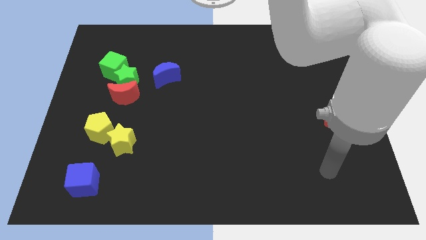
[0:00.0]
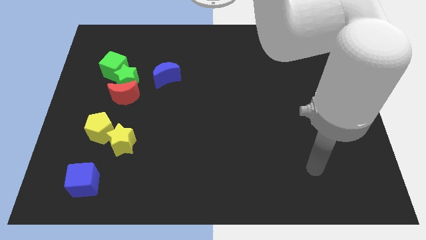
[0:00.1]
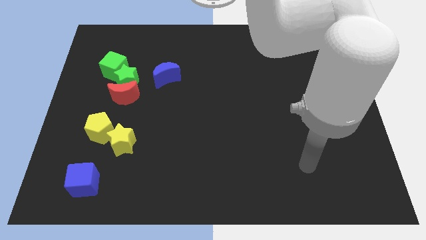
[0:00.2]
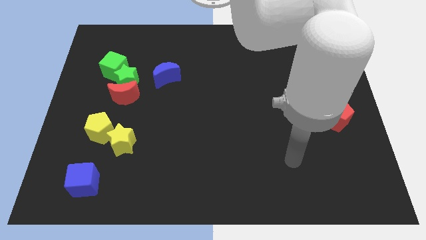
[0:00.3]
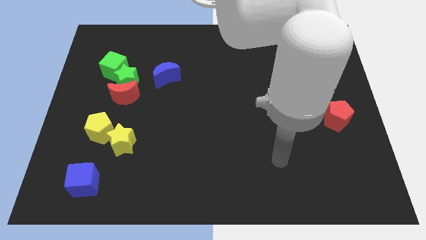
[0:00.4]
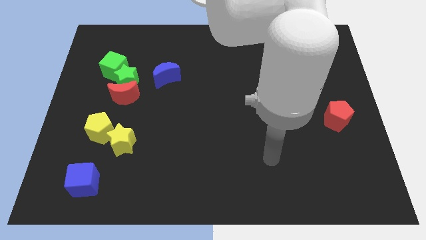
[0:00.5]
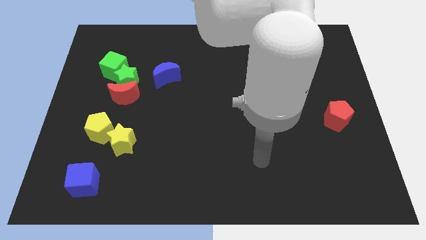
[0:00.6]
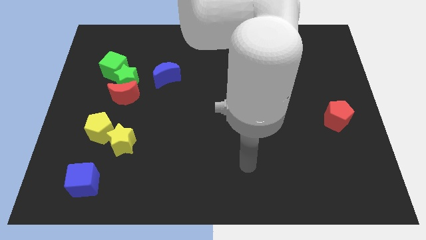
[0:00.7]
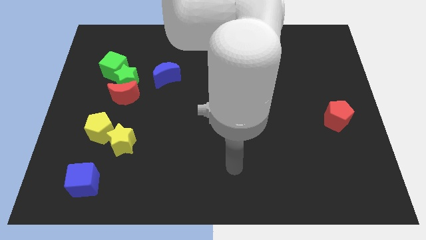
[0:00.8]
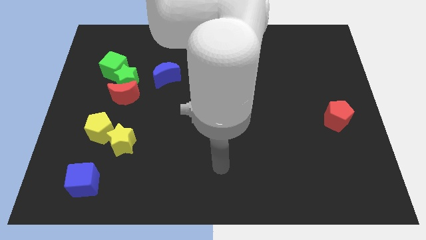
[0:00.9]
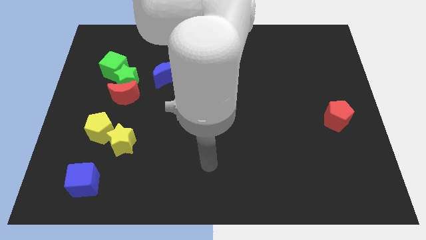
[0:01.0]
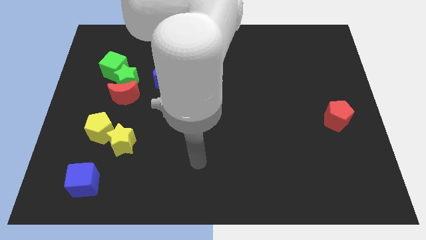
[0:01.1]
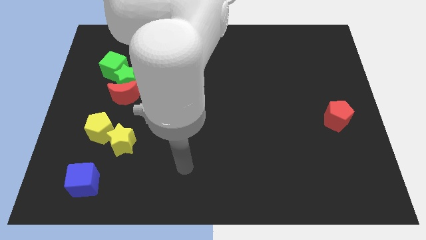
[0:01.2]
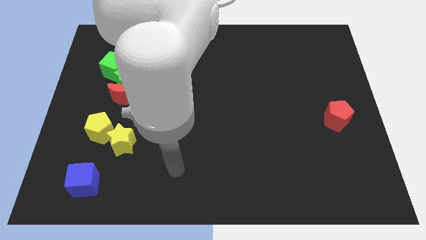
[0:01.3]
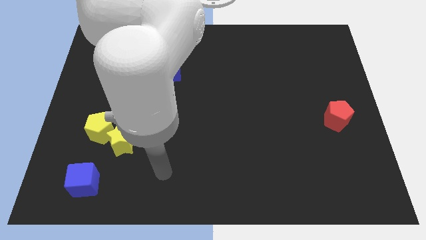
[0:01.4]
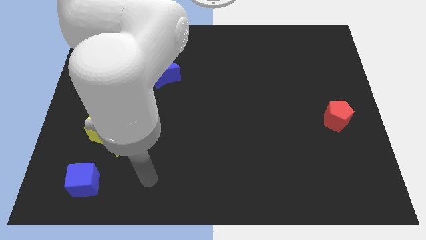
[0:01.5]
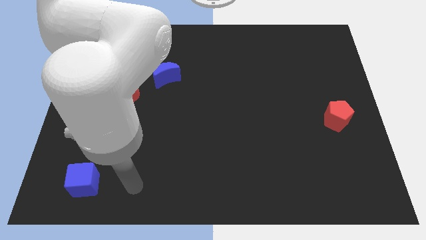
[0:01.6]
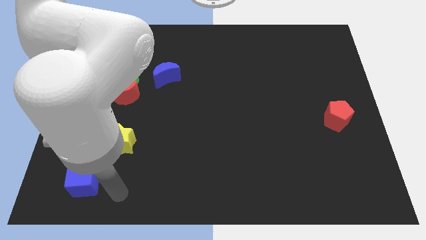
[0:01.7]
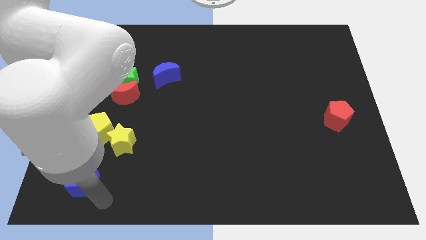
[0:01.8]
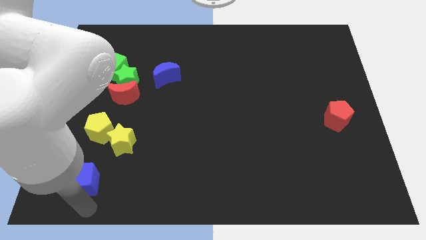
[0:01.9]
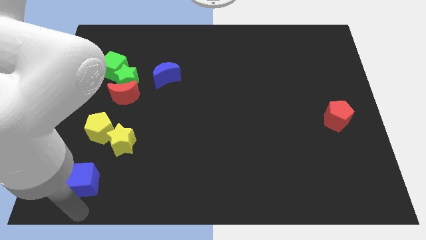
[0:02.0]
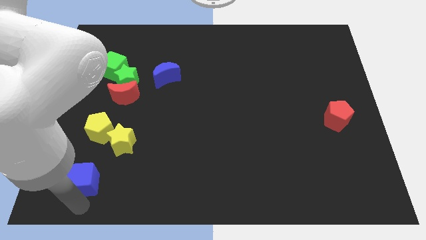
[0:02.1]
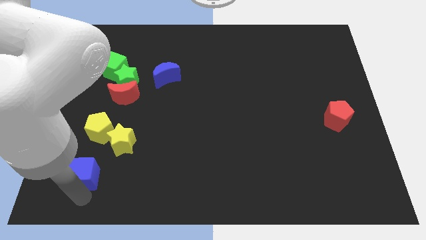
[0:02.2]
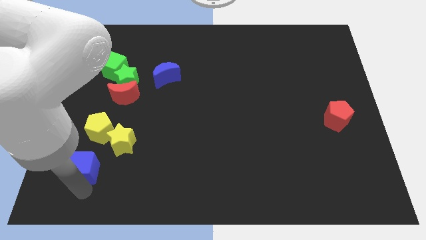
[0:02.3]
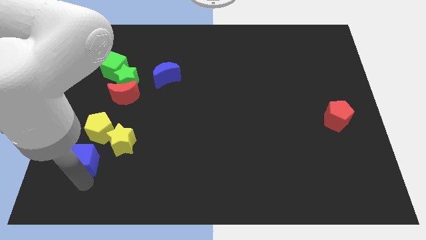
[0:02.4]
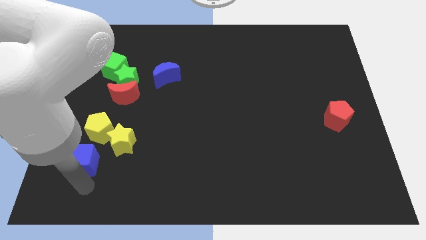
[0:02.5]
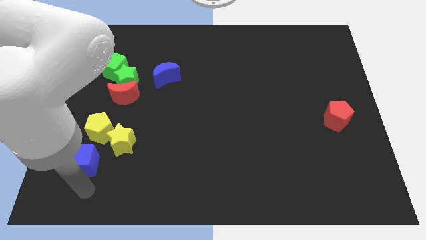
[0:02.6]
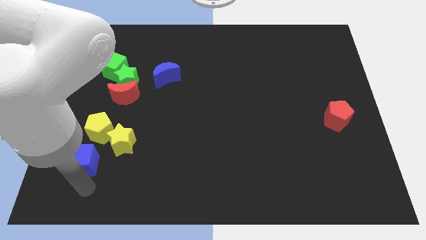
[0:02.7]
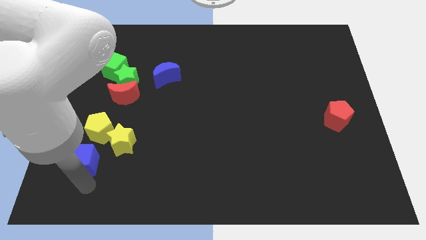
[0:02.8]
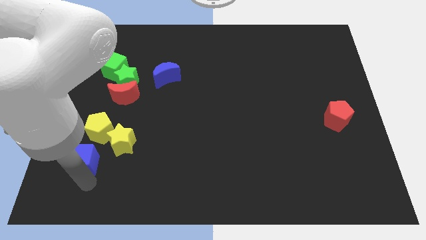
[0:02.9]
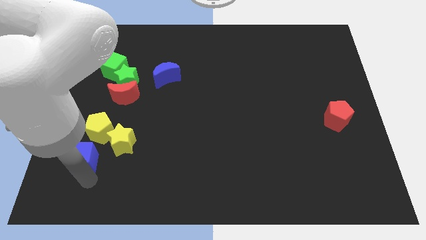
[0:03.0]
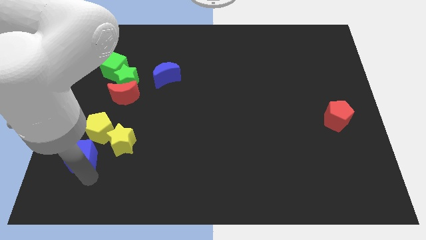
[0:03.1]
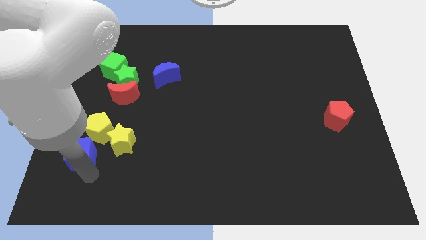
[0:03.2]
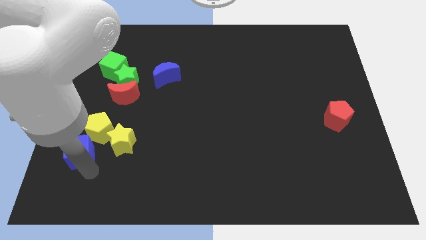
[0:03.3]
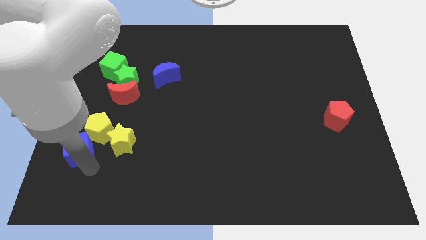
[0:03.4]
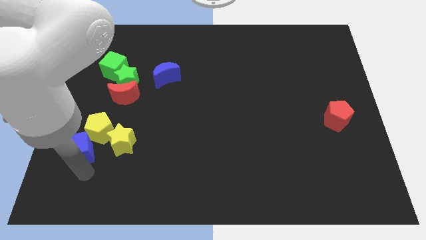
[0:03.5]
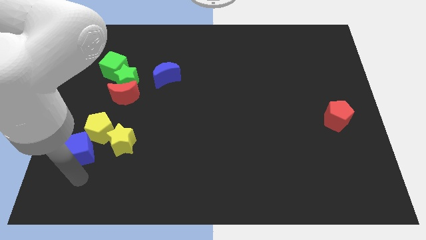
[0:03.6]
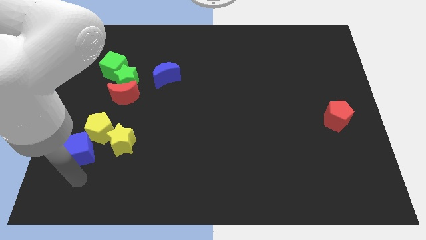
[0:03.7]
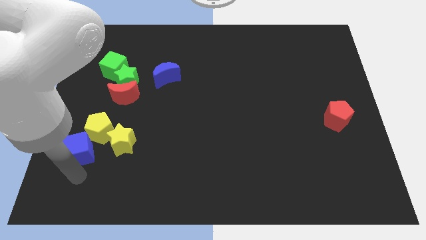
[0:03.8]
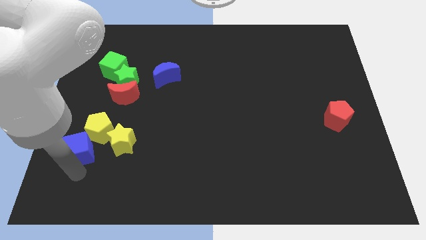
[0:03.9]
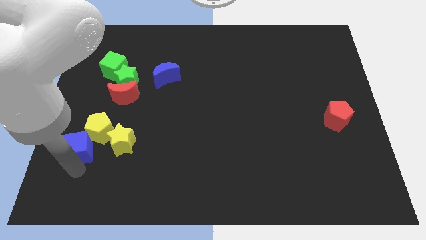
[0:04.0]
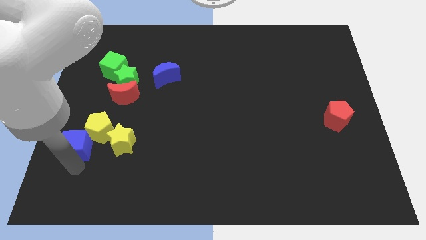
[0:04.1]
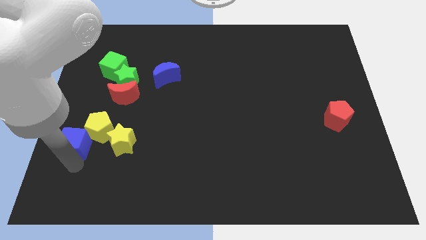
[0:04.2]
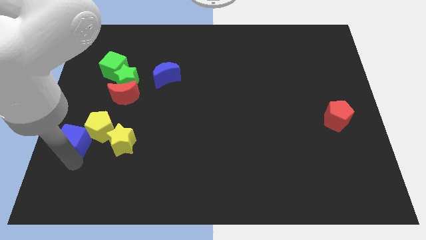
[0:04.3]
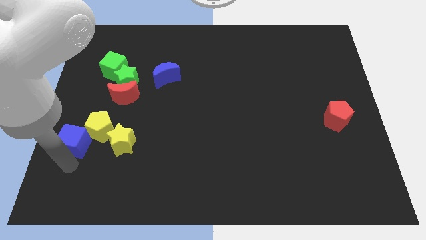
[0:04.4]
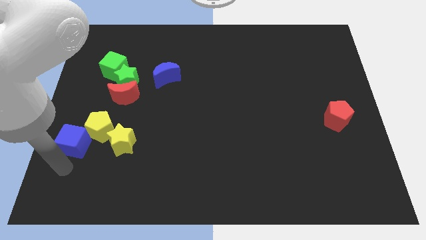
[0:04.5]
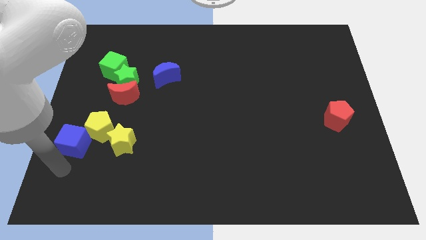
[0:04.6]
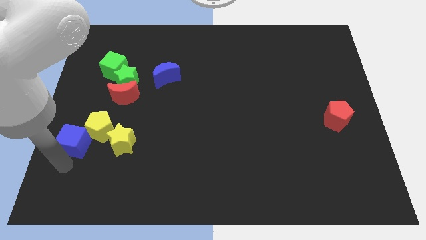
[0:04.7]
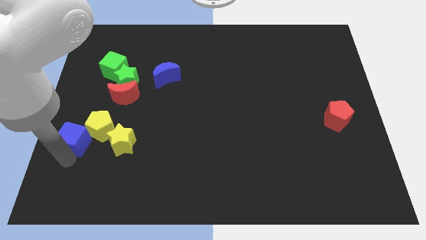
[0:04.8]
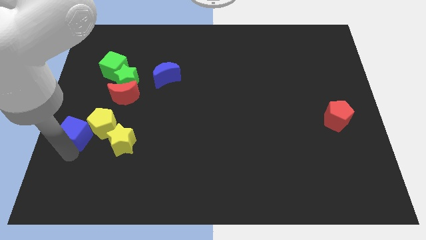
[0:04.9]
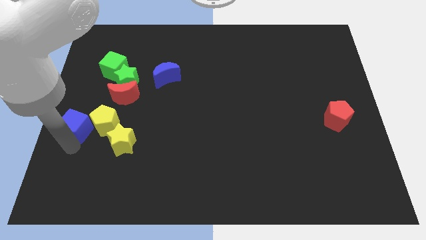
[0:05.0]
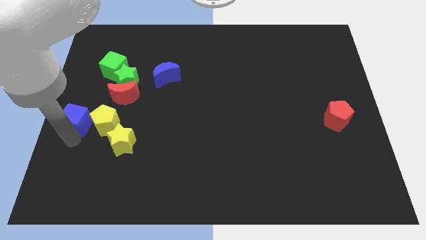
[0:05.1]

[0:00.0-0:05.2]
push the blue cube to the bottom left of the red moon
